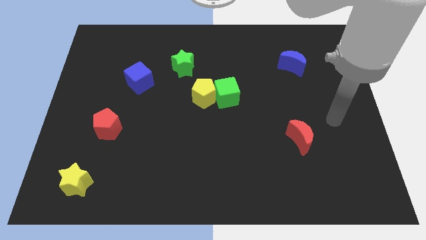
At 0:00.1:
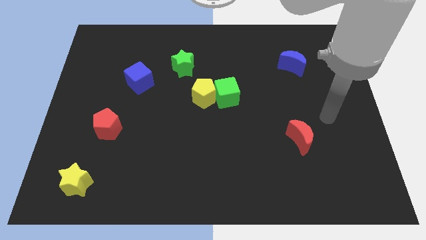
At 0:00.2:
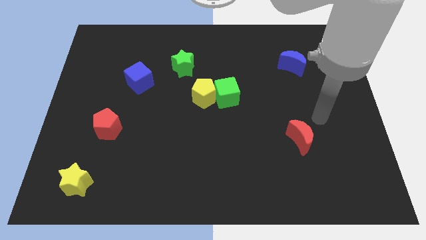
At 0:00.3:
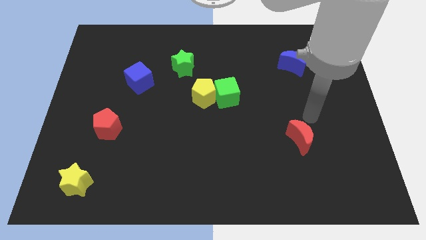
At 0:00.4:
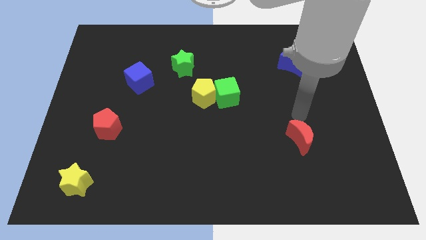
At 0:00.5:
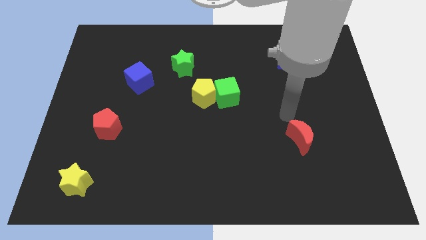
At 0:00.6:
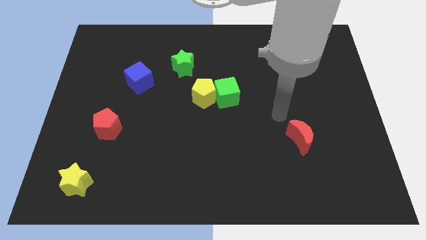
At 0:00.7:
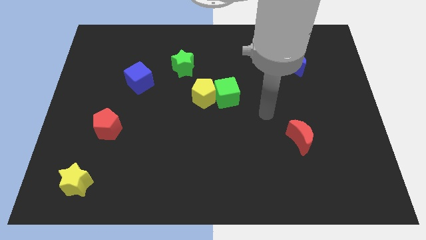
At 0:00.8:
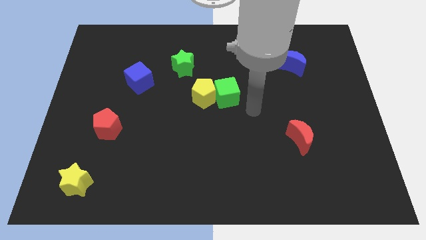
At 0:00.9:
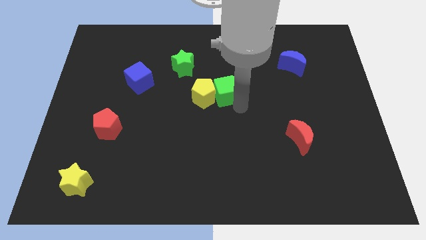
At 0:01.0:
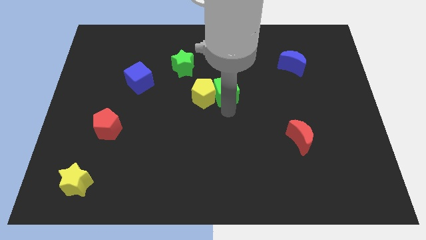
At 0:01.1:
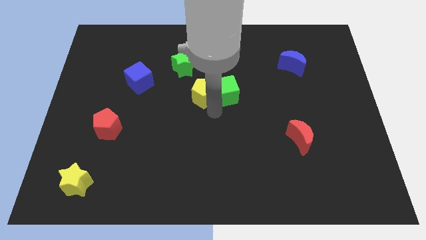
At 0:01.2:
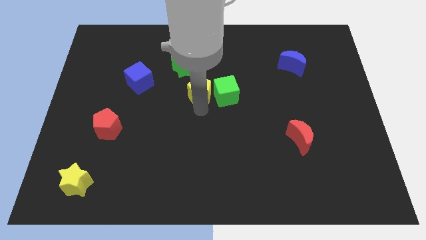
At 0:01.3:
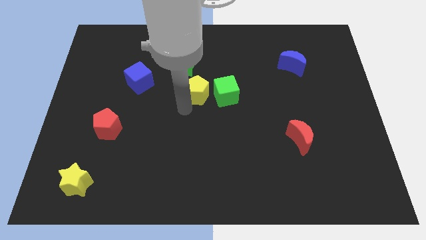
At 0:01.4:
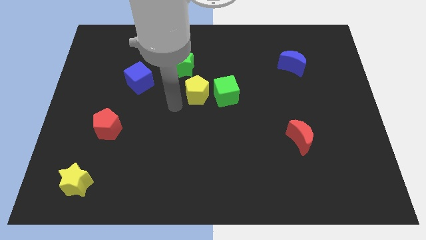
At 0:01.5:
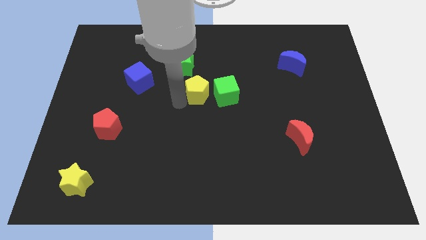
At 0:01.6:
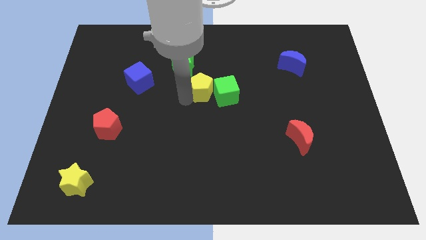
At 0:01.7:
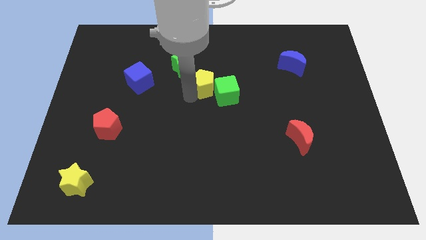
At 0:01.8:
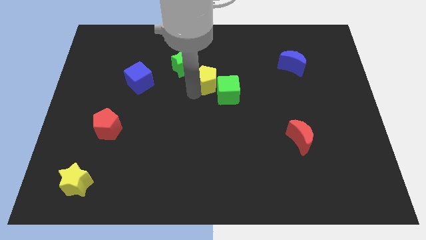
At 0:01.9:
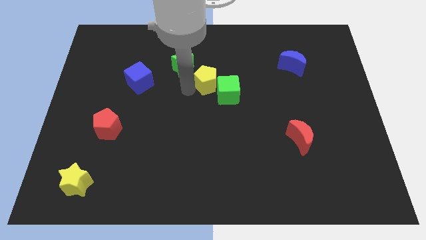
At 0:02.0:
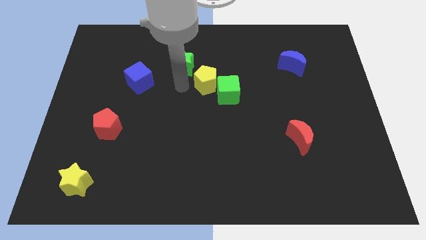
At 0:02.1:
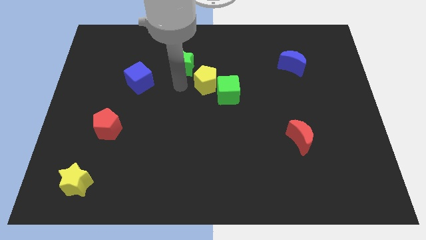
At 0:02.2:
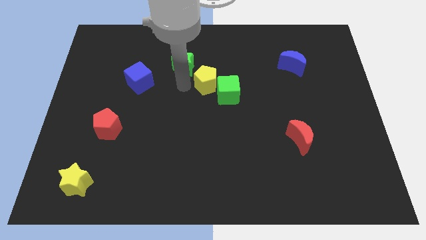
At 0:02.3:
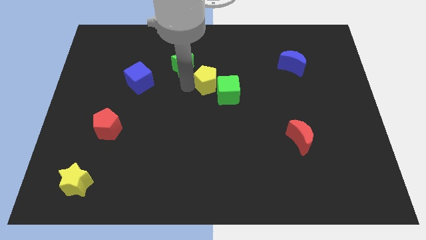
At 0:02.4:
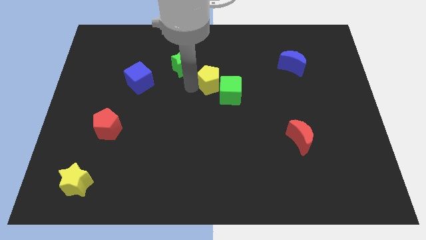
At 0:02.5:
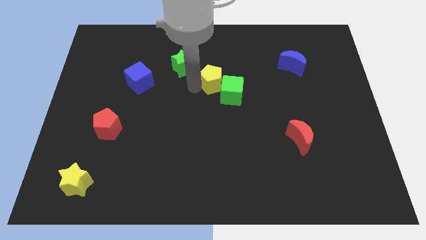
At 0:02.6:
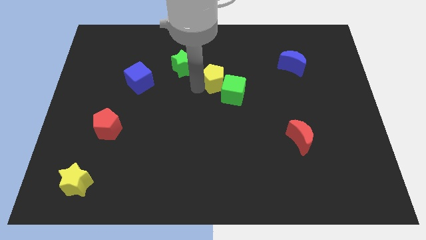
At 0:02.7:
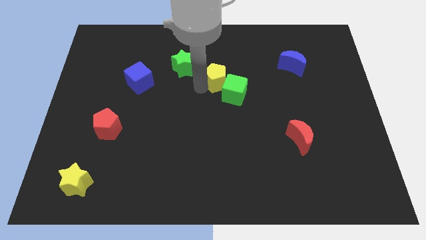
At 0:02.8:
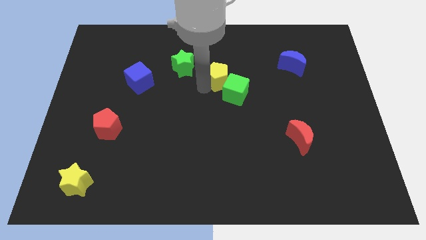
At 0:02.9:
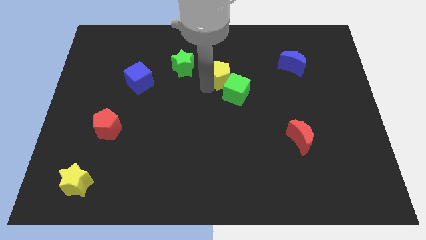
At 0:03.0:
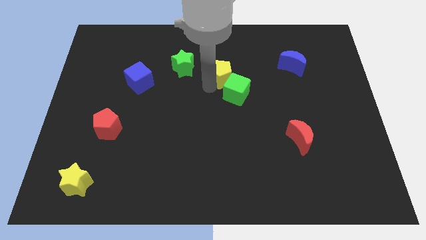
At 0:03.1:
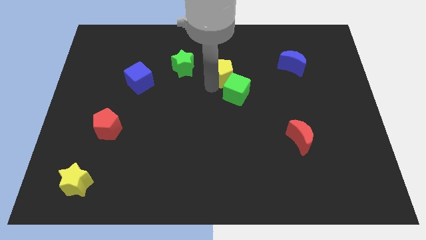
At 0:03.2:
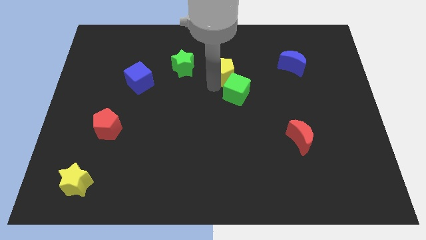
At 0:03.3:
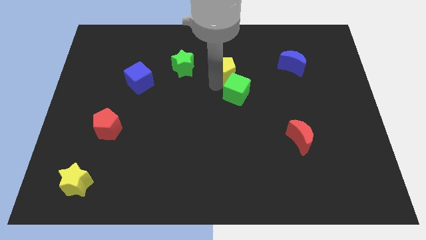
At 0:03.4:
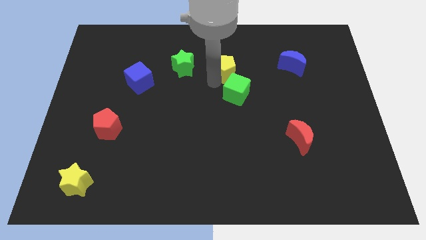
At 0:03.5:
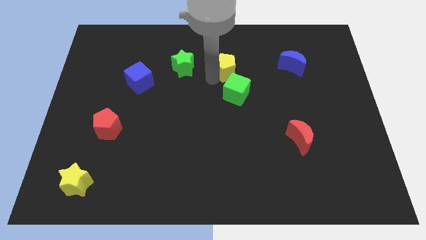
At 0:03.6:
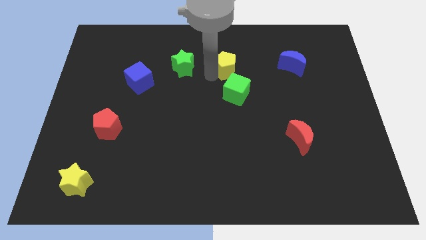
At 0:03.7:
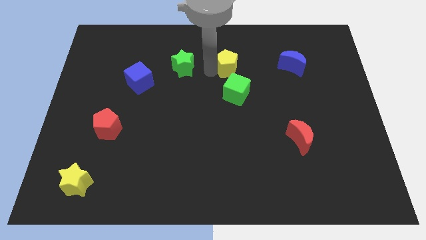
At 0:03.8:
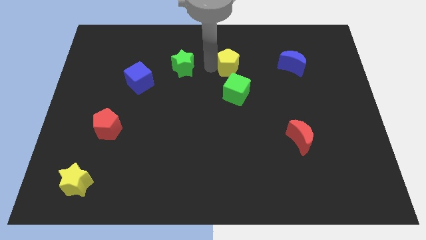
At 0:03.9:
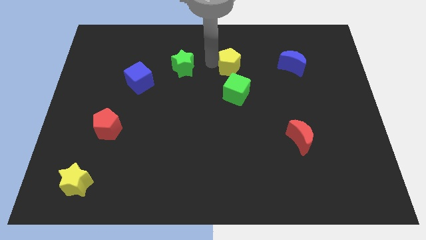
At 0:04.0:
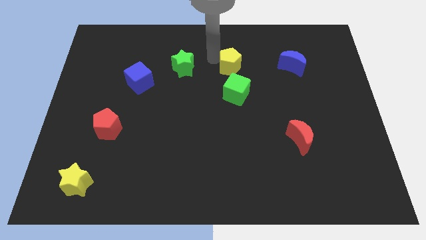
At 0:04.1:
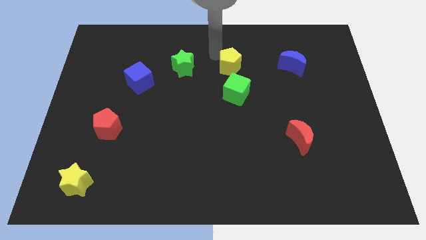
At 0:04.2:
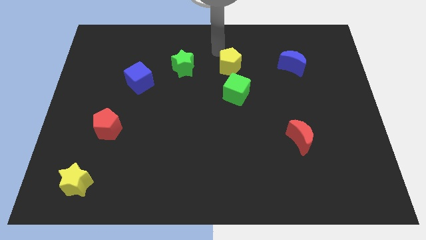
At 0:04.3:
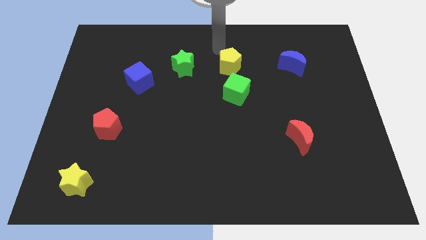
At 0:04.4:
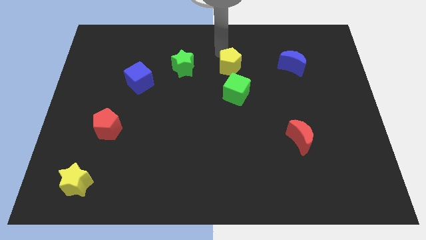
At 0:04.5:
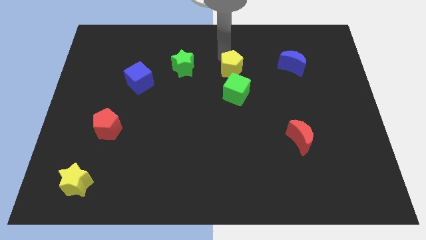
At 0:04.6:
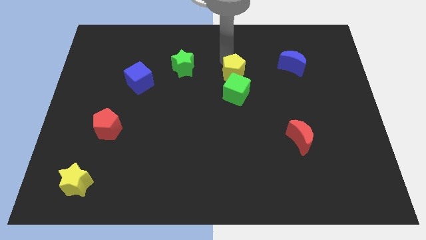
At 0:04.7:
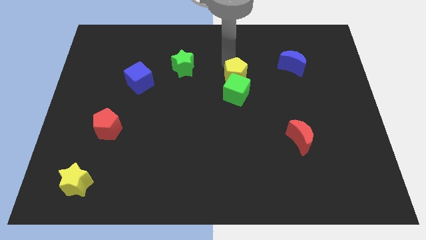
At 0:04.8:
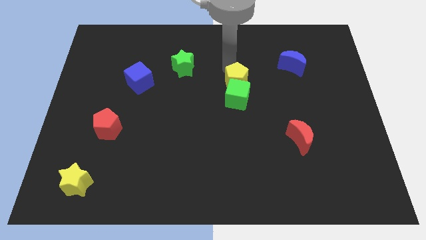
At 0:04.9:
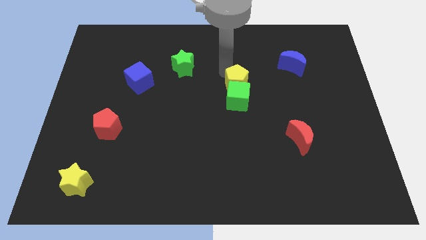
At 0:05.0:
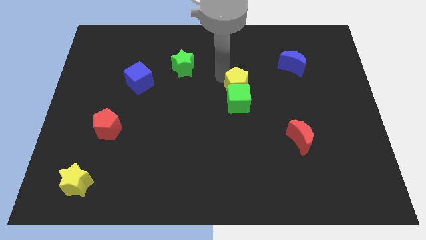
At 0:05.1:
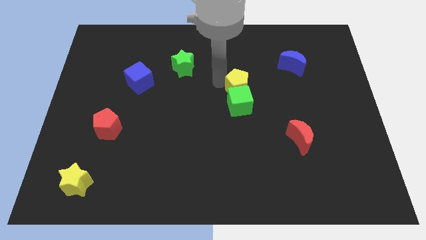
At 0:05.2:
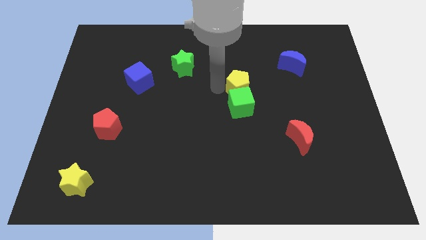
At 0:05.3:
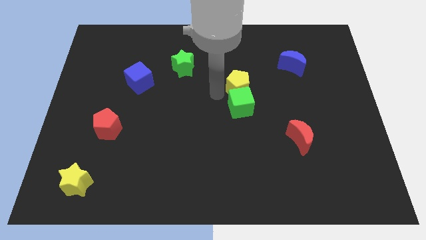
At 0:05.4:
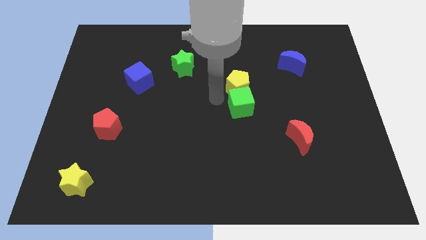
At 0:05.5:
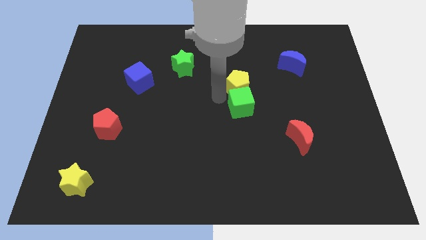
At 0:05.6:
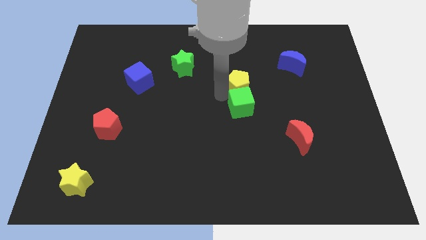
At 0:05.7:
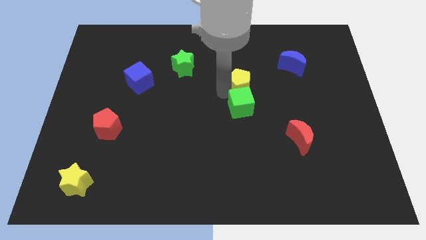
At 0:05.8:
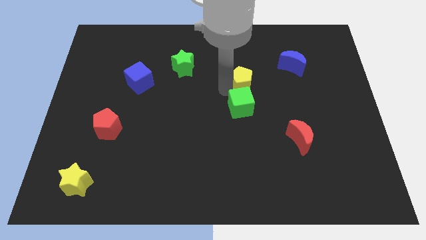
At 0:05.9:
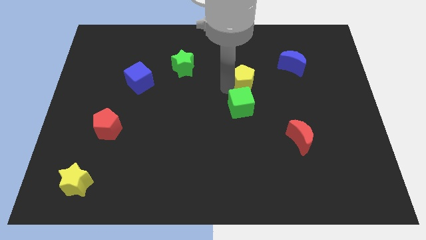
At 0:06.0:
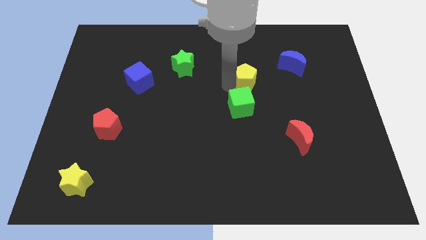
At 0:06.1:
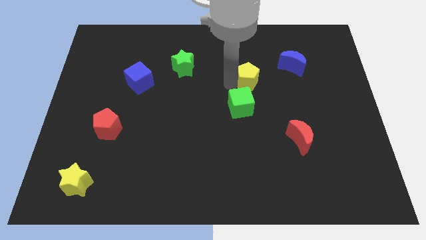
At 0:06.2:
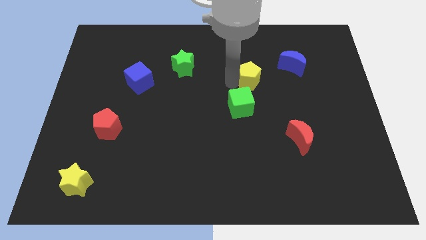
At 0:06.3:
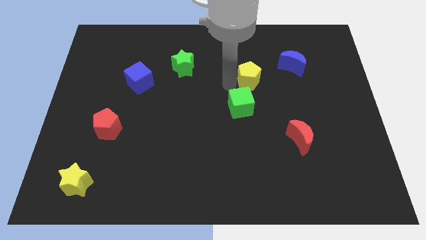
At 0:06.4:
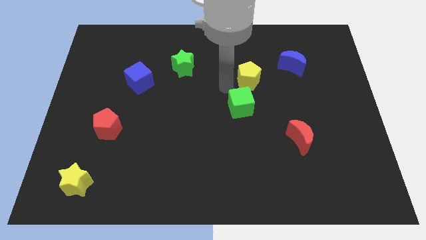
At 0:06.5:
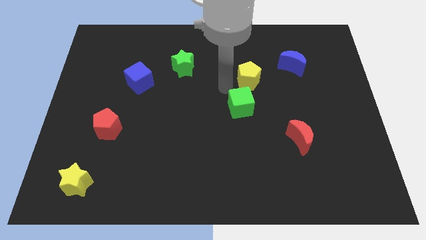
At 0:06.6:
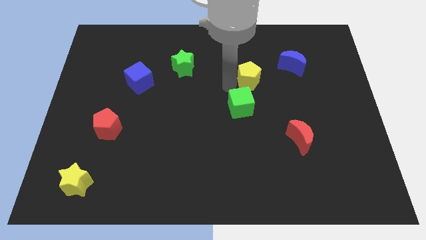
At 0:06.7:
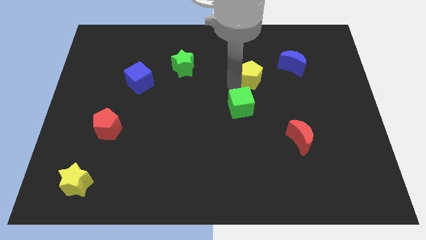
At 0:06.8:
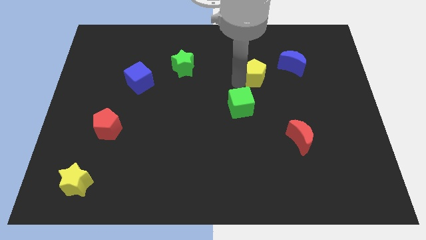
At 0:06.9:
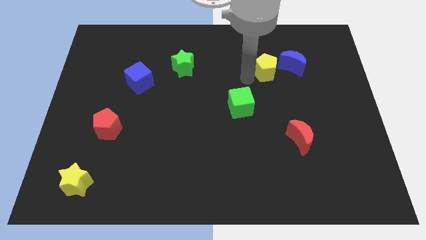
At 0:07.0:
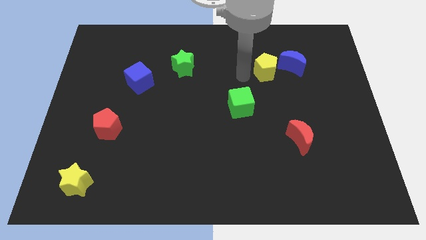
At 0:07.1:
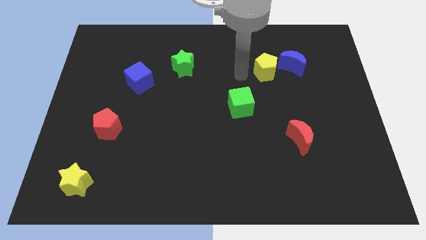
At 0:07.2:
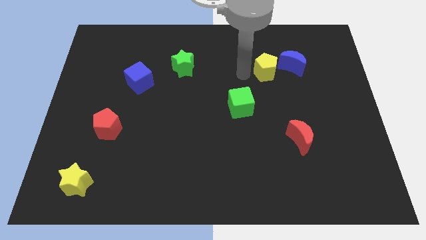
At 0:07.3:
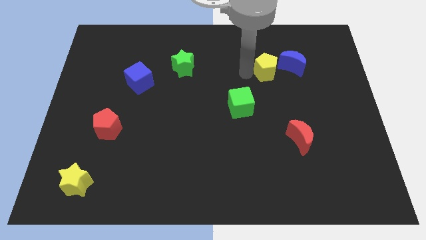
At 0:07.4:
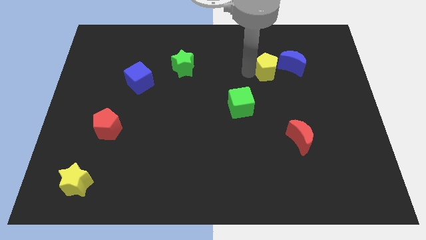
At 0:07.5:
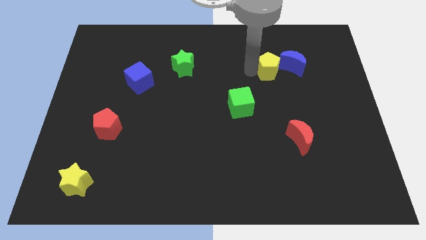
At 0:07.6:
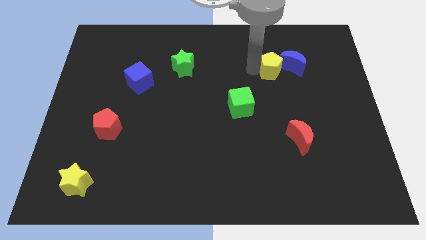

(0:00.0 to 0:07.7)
push the yellow pentagon close to the blue moon
